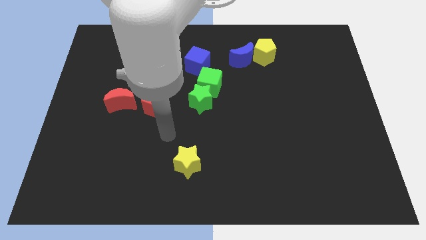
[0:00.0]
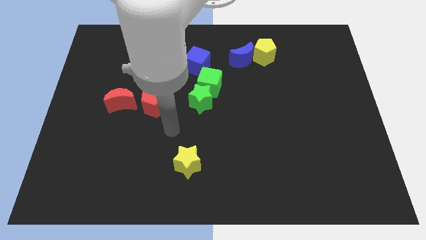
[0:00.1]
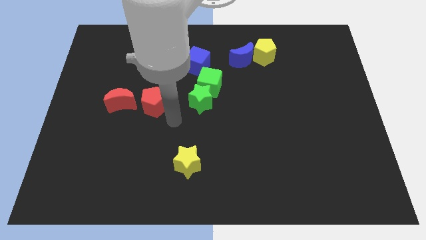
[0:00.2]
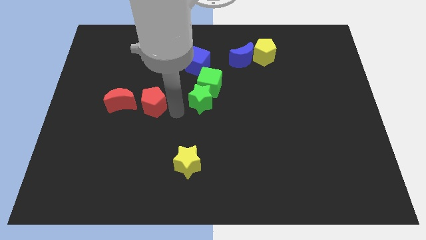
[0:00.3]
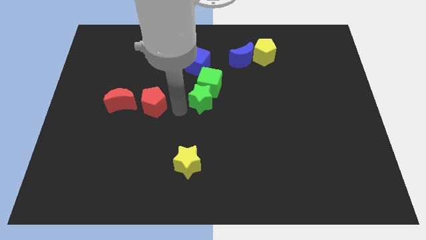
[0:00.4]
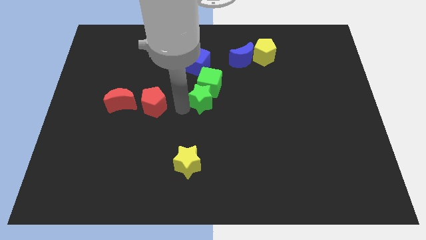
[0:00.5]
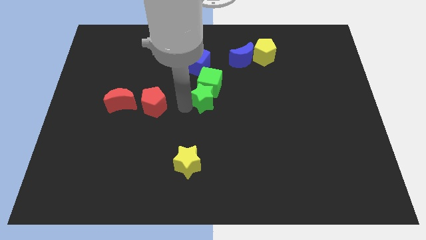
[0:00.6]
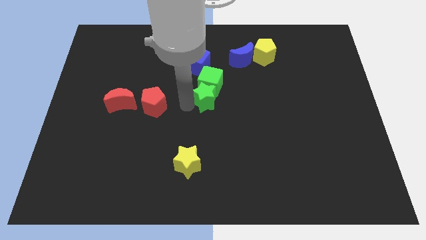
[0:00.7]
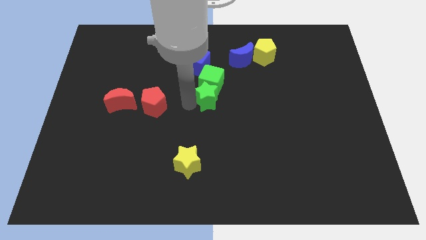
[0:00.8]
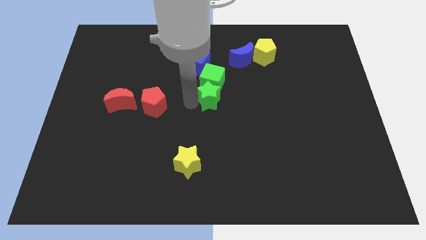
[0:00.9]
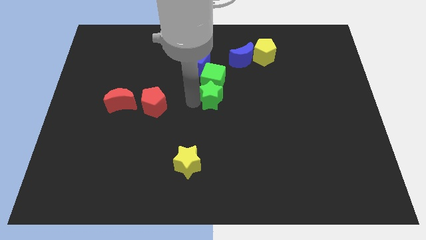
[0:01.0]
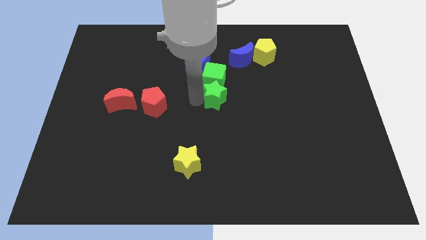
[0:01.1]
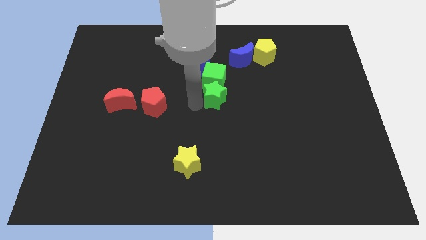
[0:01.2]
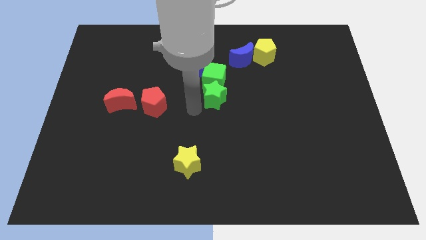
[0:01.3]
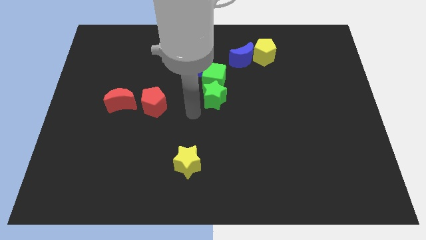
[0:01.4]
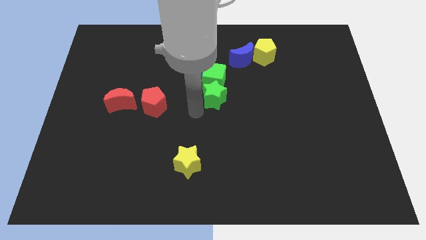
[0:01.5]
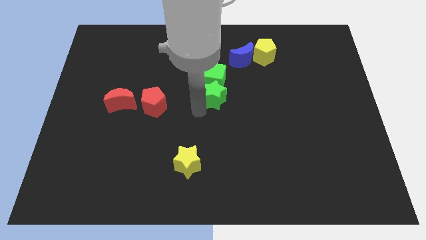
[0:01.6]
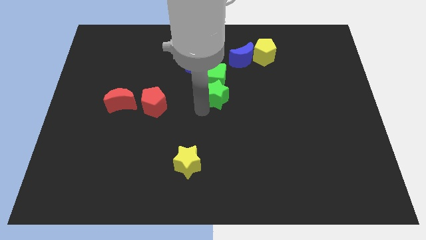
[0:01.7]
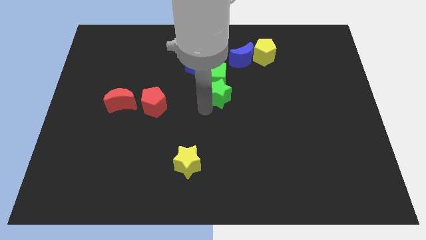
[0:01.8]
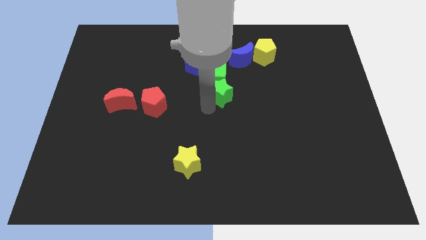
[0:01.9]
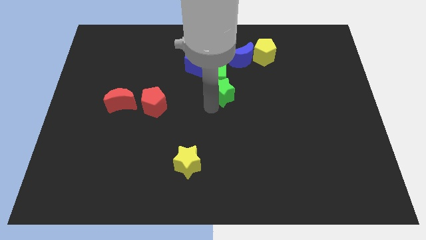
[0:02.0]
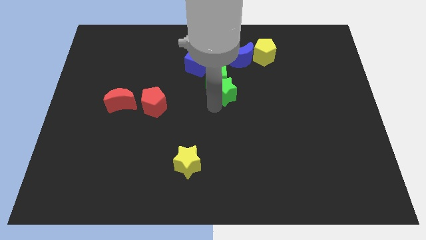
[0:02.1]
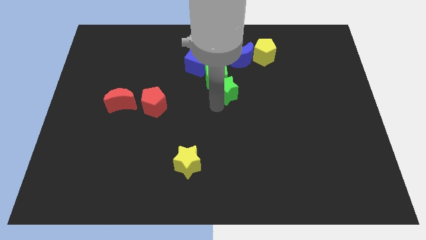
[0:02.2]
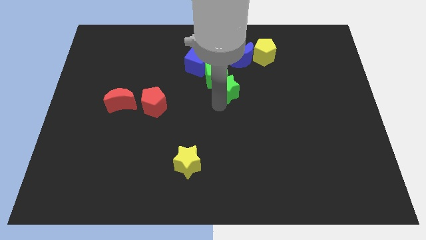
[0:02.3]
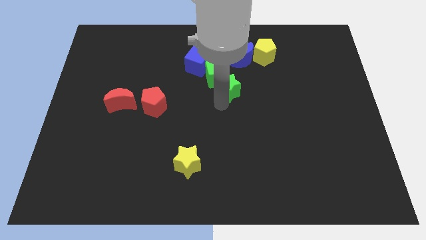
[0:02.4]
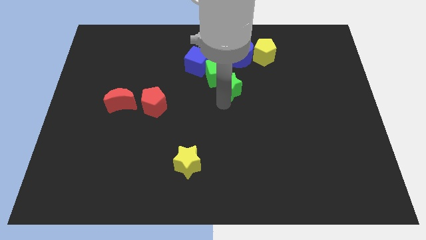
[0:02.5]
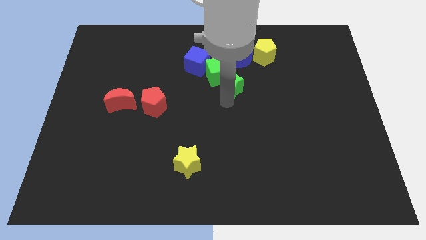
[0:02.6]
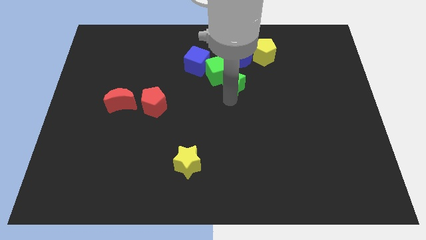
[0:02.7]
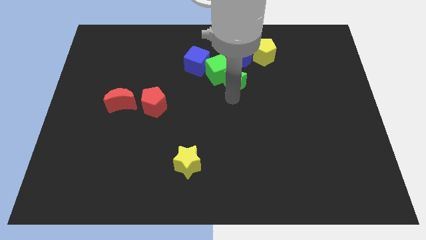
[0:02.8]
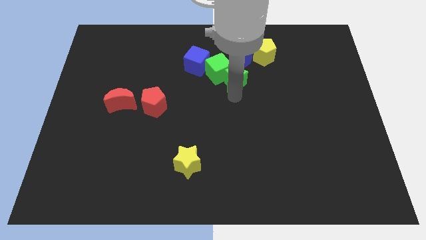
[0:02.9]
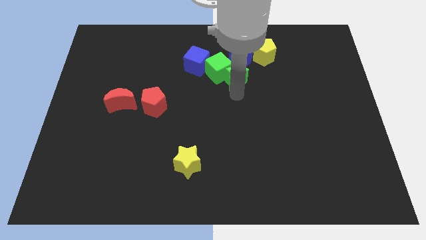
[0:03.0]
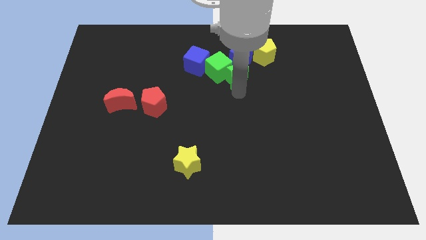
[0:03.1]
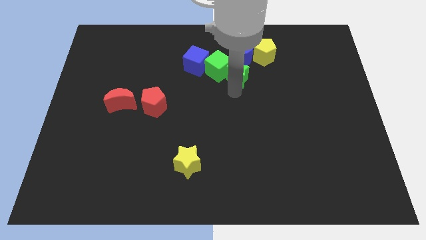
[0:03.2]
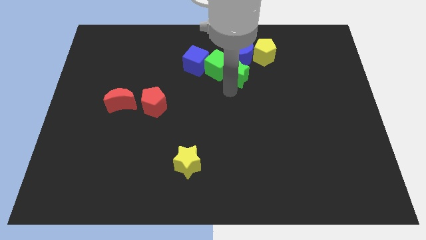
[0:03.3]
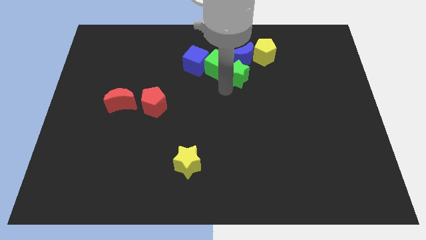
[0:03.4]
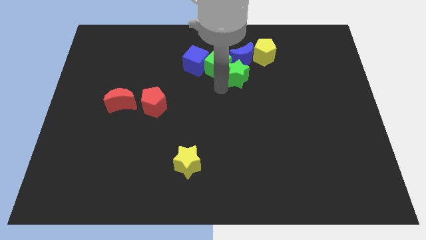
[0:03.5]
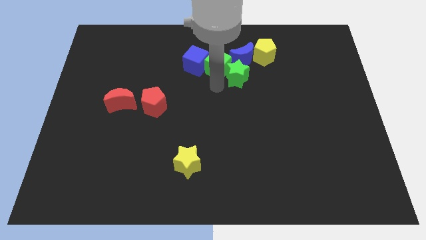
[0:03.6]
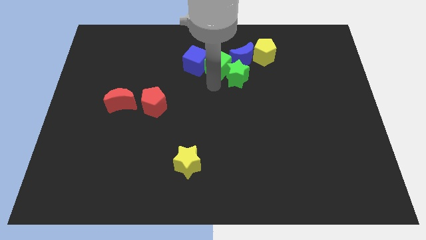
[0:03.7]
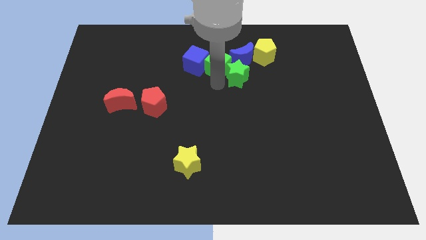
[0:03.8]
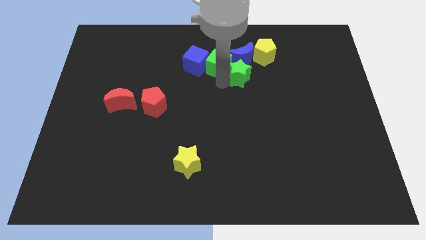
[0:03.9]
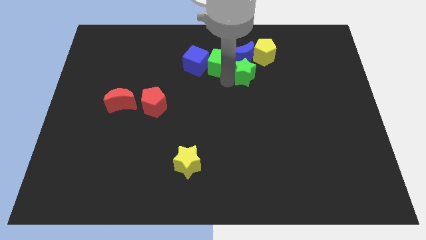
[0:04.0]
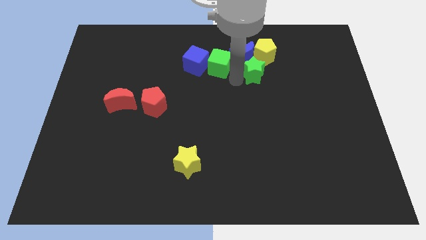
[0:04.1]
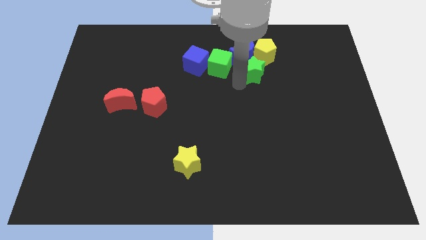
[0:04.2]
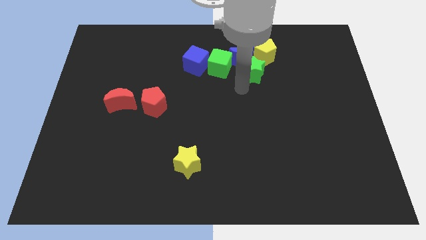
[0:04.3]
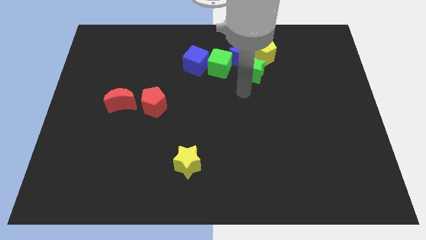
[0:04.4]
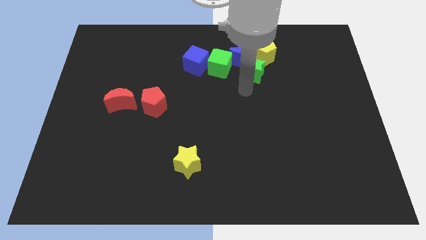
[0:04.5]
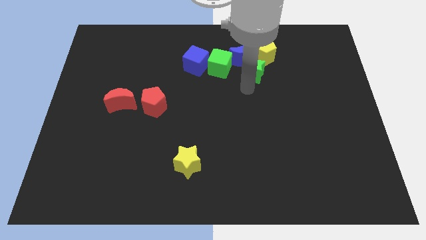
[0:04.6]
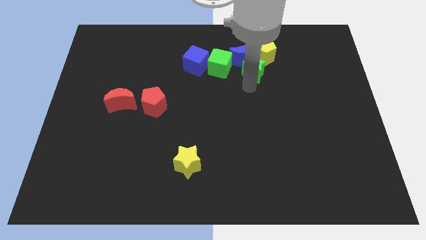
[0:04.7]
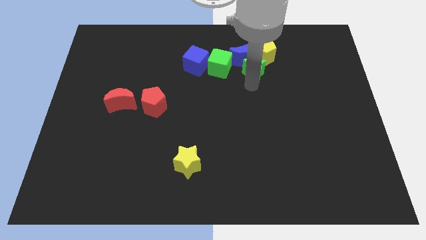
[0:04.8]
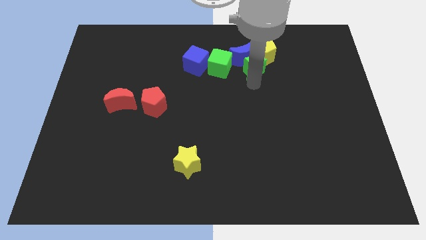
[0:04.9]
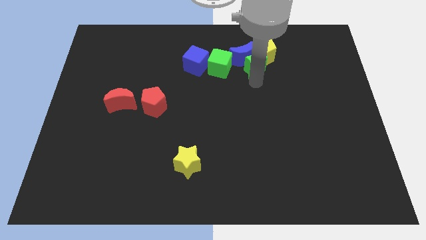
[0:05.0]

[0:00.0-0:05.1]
slide the green star to the yellow pentagon

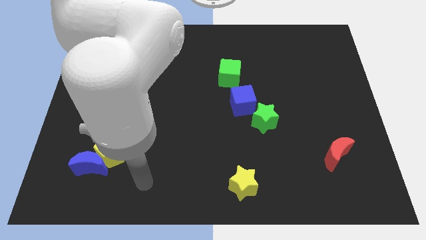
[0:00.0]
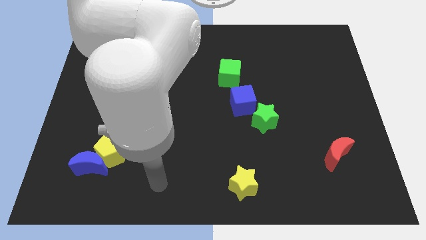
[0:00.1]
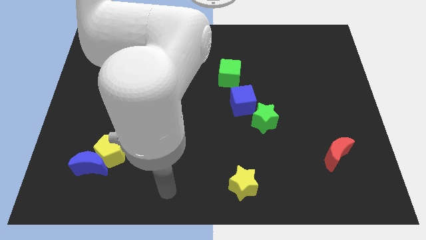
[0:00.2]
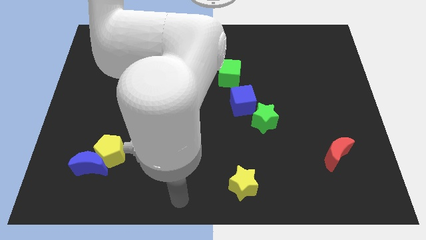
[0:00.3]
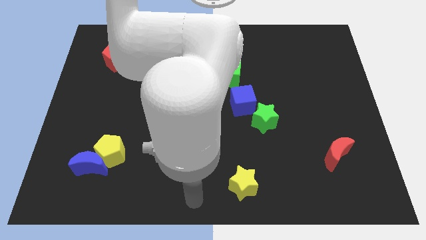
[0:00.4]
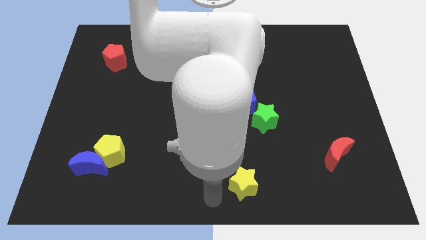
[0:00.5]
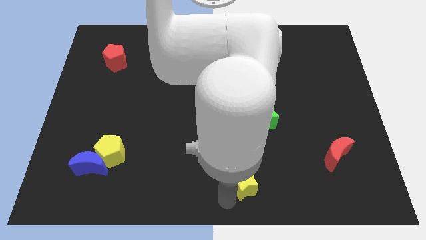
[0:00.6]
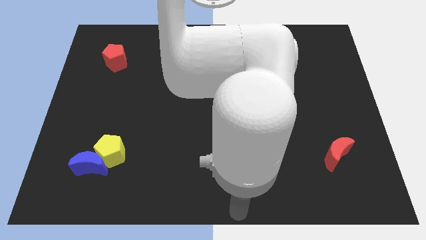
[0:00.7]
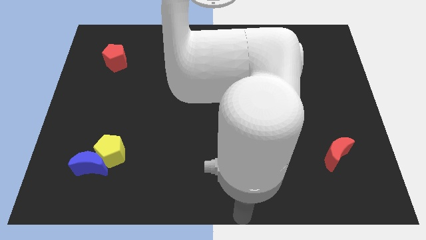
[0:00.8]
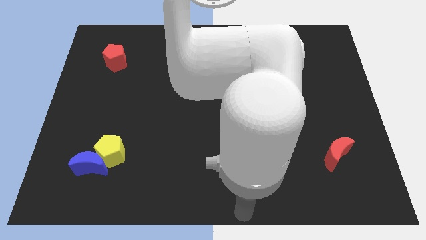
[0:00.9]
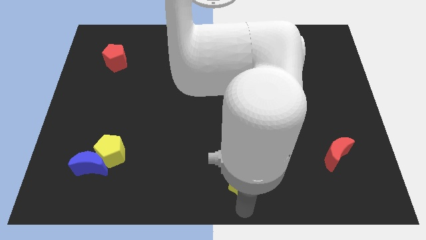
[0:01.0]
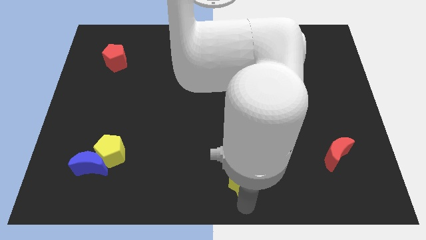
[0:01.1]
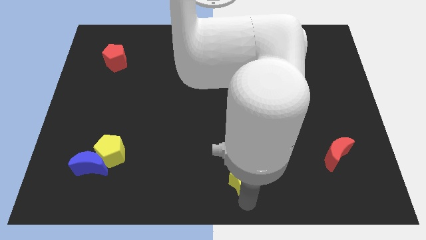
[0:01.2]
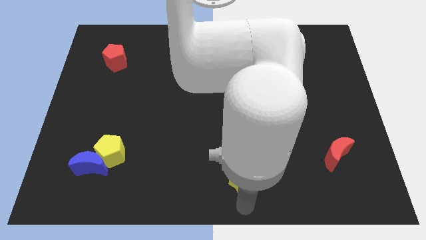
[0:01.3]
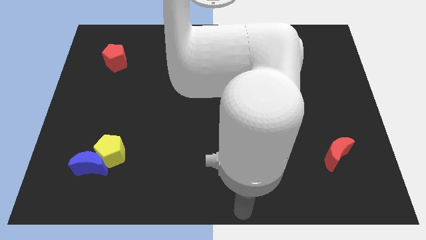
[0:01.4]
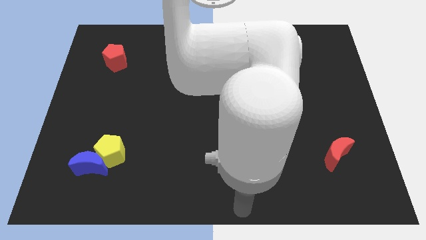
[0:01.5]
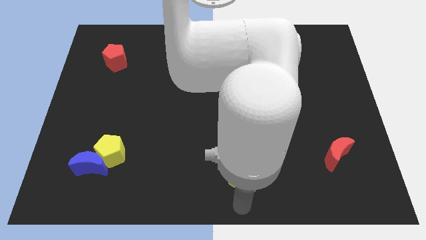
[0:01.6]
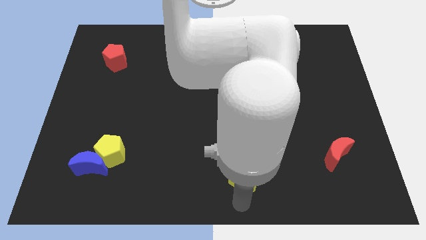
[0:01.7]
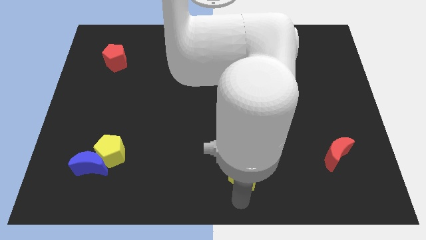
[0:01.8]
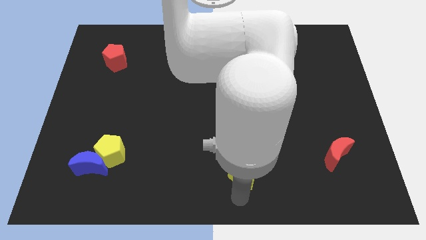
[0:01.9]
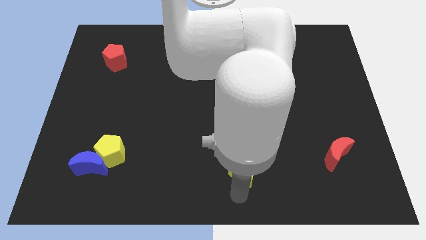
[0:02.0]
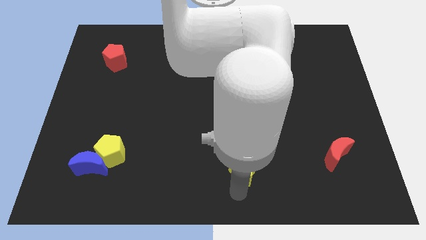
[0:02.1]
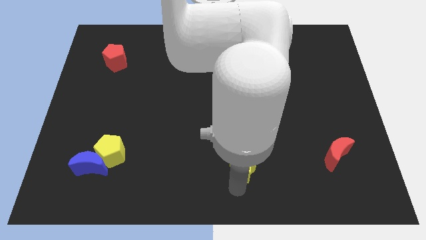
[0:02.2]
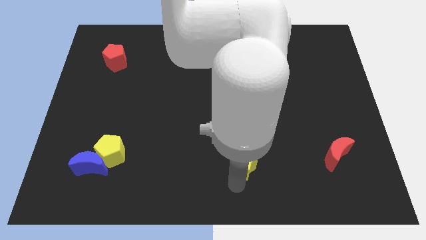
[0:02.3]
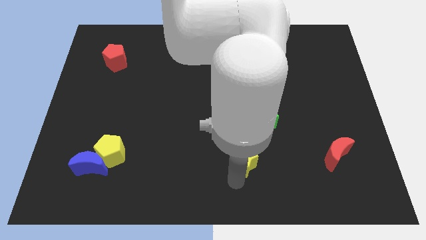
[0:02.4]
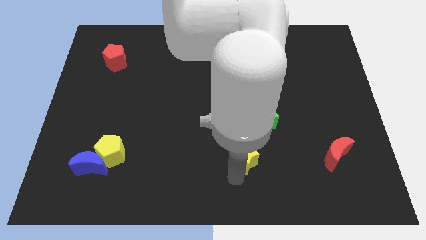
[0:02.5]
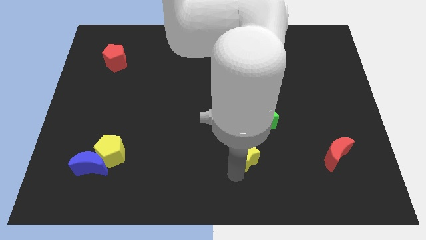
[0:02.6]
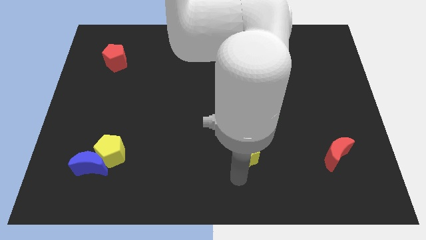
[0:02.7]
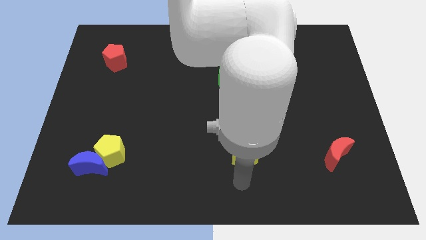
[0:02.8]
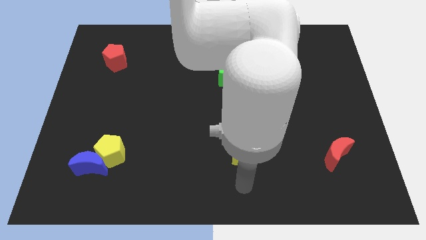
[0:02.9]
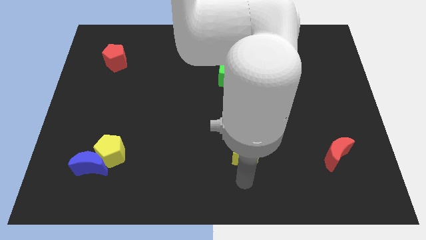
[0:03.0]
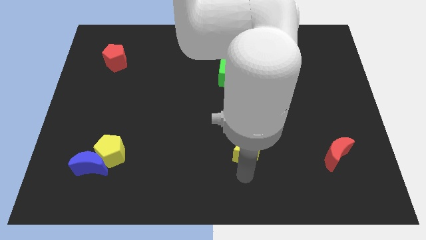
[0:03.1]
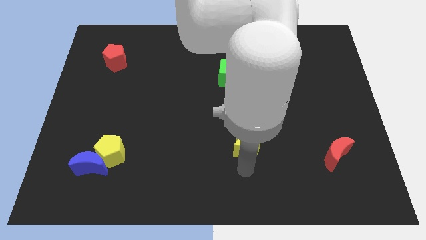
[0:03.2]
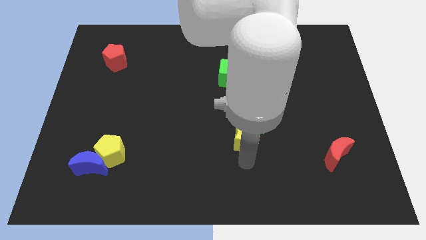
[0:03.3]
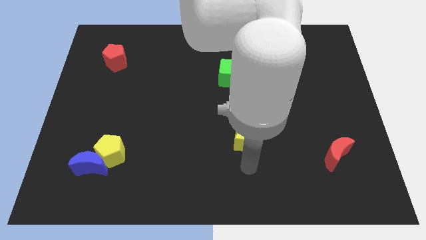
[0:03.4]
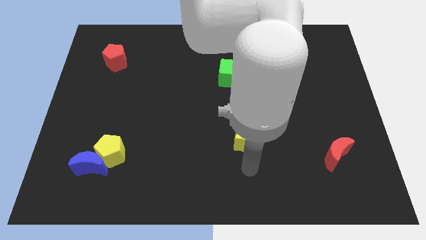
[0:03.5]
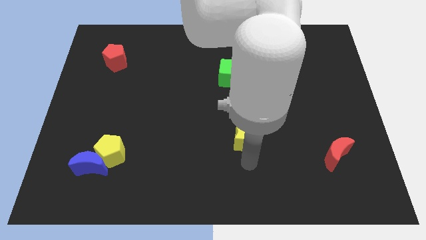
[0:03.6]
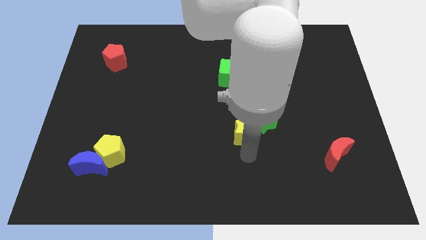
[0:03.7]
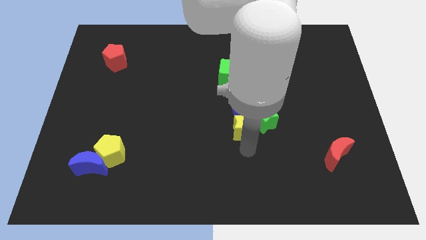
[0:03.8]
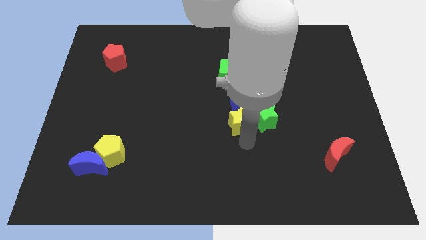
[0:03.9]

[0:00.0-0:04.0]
push the yellow star to the blue cube
